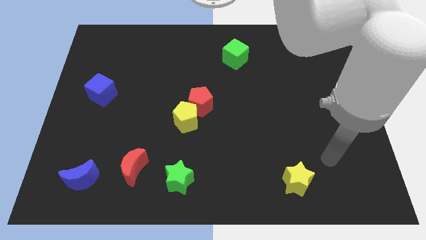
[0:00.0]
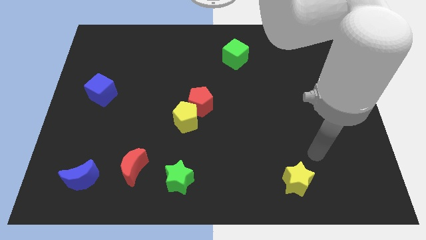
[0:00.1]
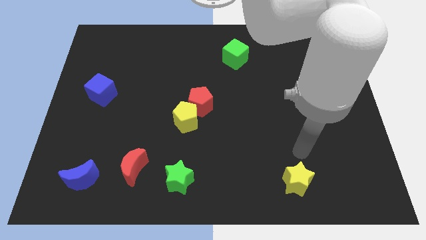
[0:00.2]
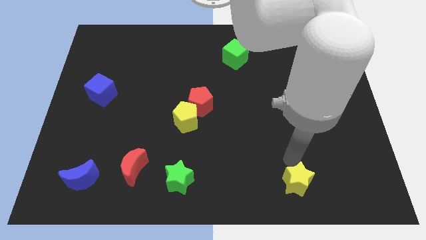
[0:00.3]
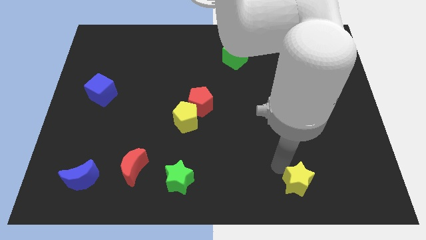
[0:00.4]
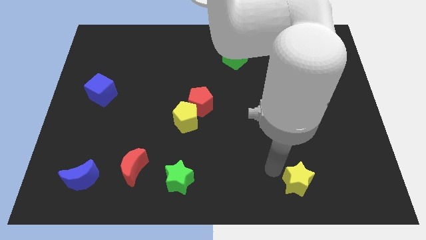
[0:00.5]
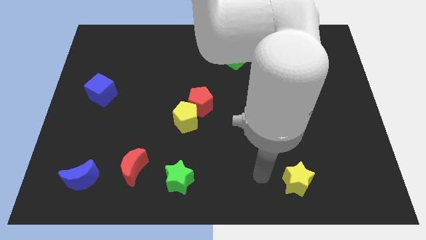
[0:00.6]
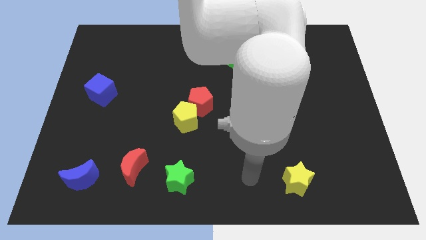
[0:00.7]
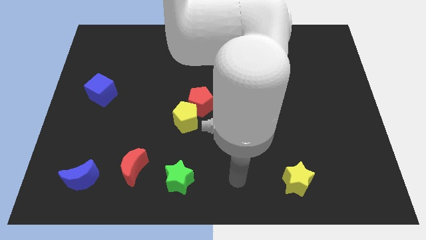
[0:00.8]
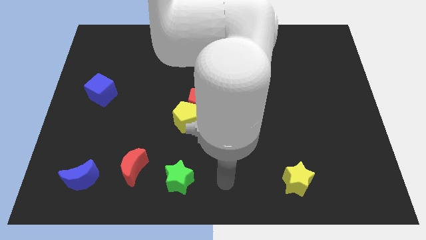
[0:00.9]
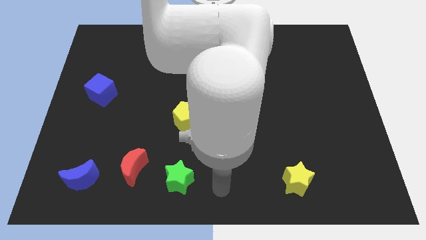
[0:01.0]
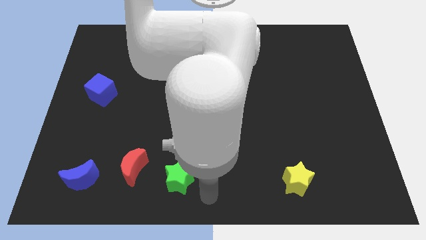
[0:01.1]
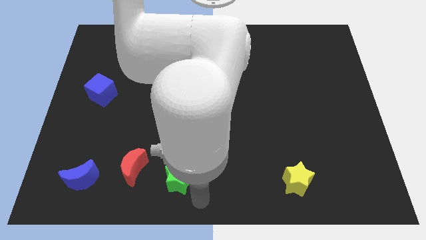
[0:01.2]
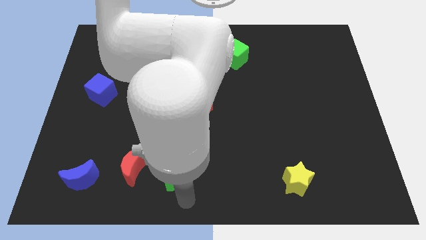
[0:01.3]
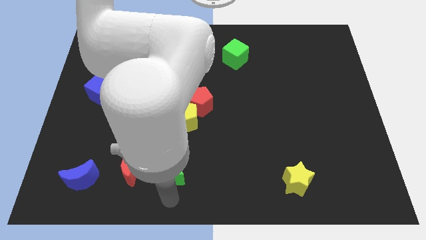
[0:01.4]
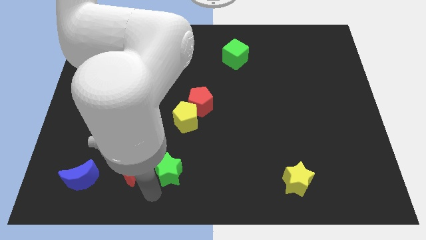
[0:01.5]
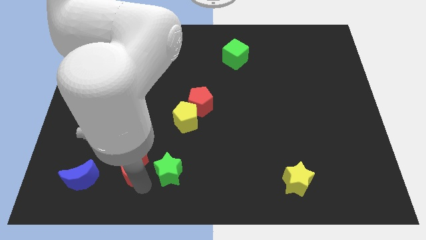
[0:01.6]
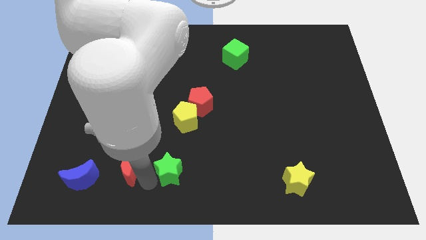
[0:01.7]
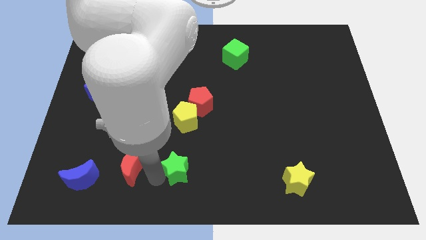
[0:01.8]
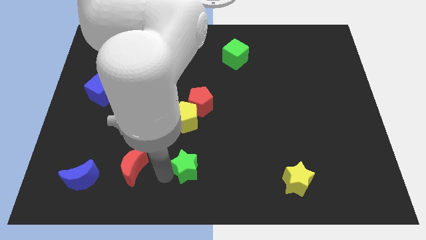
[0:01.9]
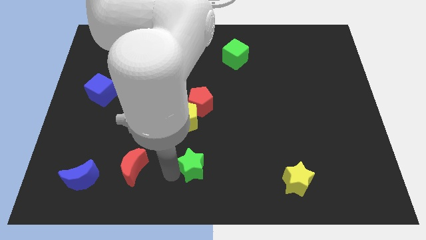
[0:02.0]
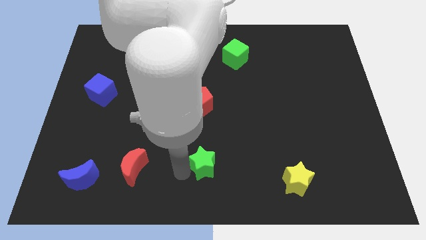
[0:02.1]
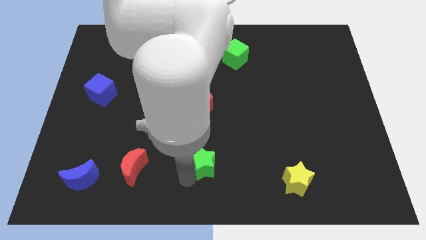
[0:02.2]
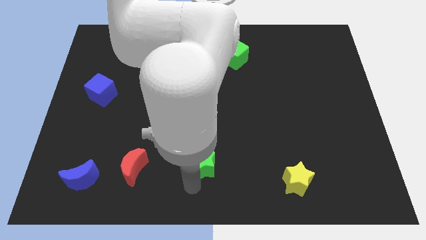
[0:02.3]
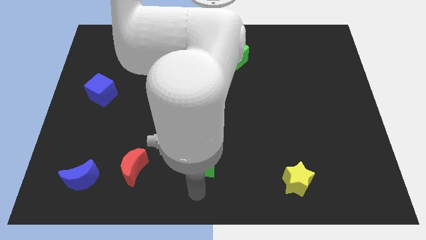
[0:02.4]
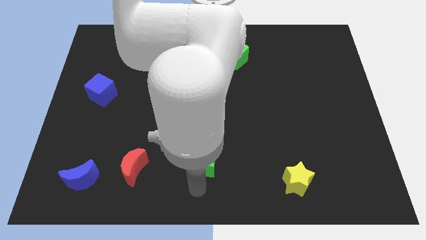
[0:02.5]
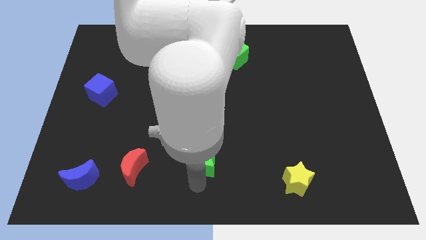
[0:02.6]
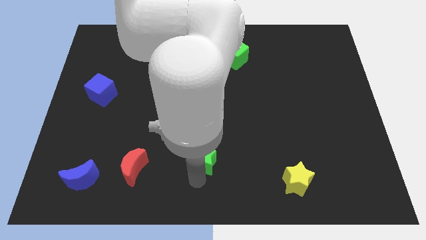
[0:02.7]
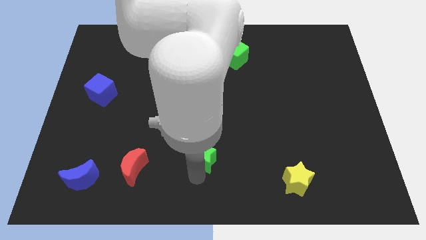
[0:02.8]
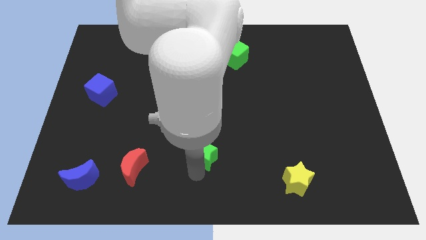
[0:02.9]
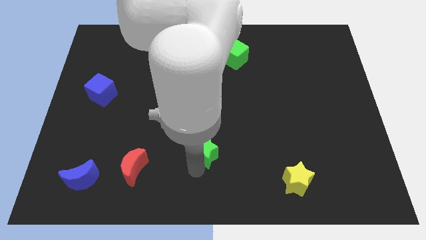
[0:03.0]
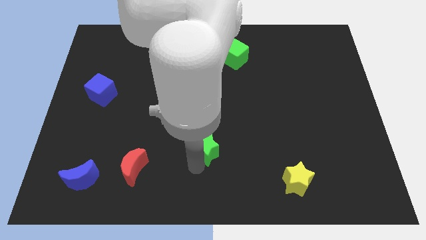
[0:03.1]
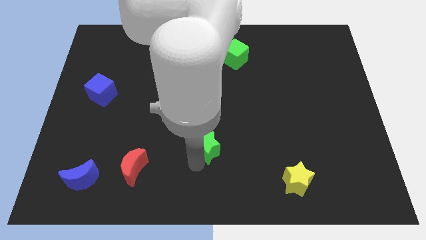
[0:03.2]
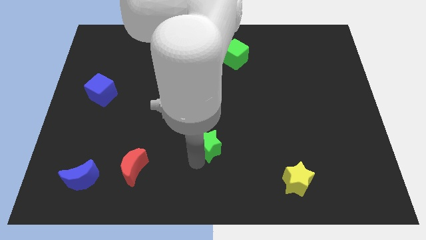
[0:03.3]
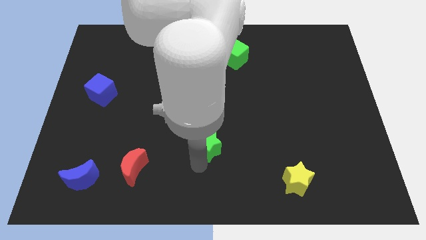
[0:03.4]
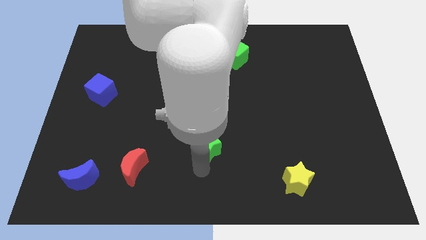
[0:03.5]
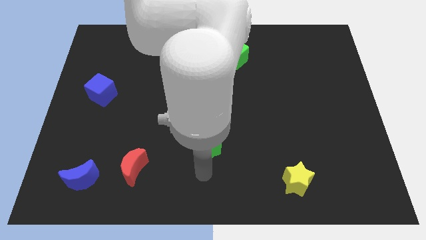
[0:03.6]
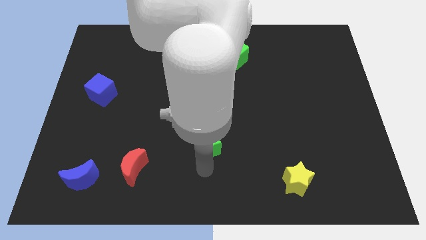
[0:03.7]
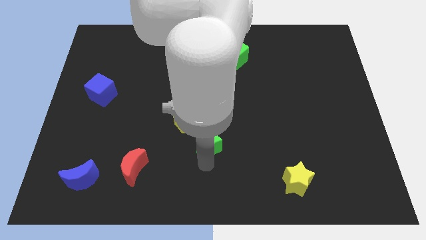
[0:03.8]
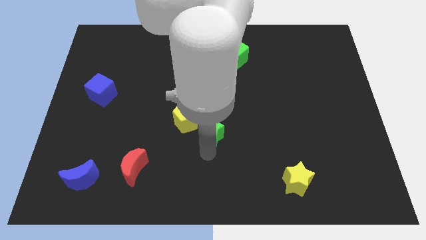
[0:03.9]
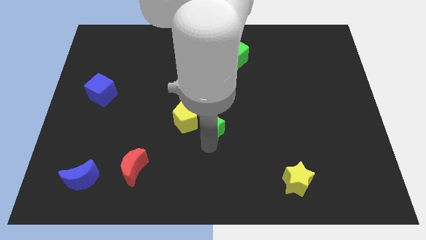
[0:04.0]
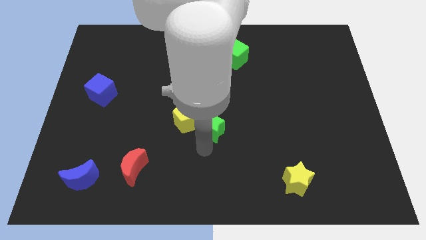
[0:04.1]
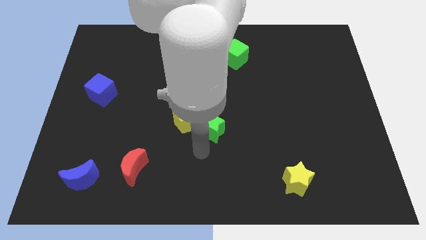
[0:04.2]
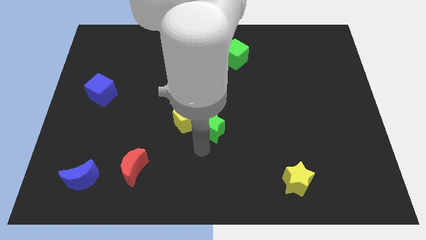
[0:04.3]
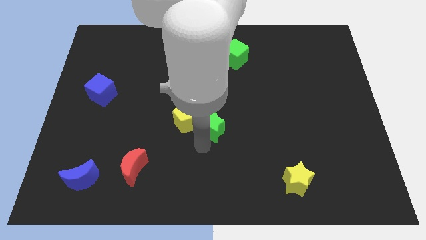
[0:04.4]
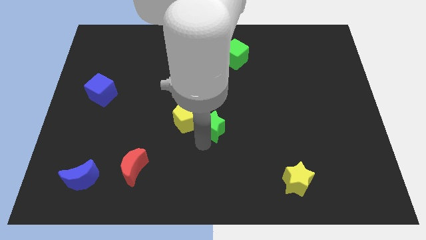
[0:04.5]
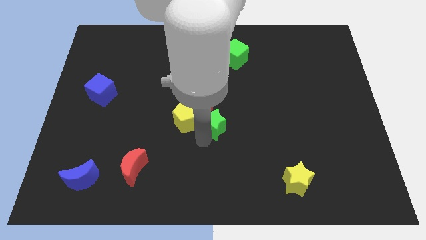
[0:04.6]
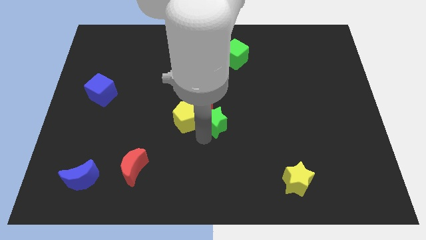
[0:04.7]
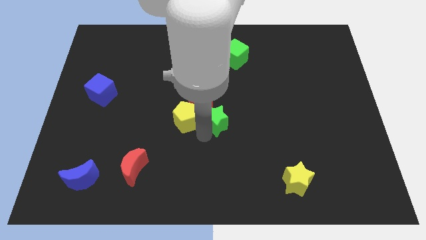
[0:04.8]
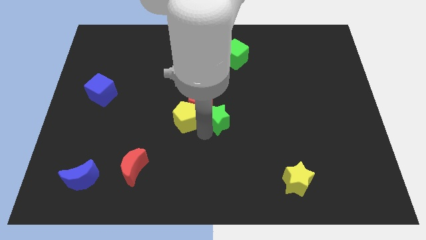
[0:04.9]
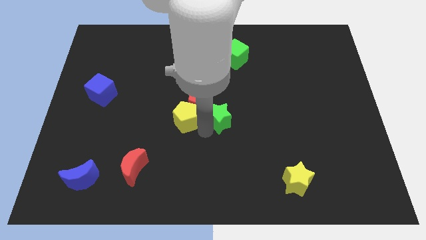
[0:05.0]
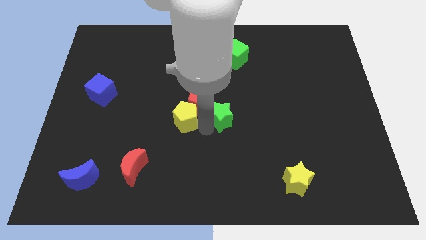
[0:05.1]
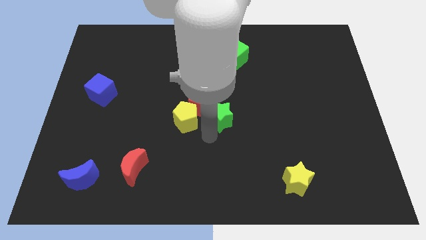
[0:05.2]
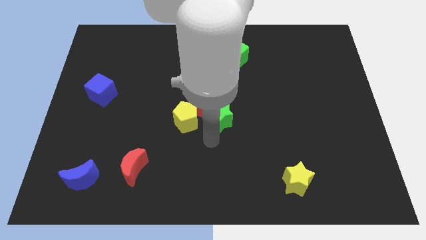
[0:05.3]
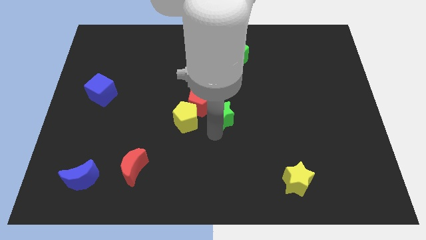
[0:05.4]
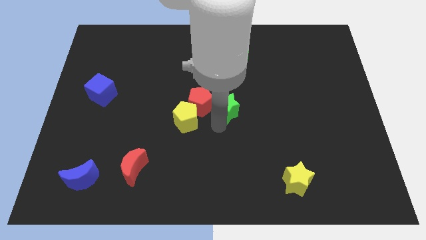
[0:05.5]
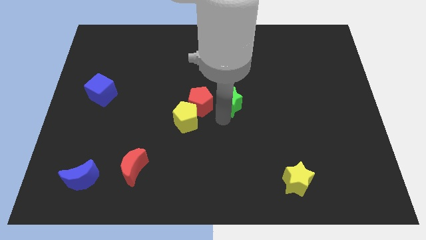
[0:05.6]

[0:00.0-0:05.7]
put the green star to the bottom side of the green cube

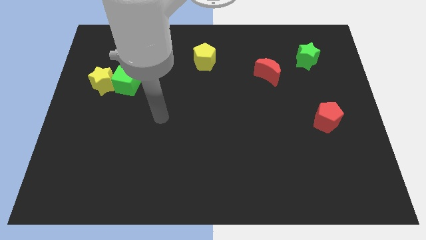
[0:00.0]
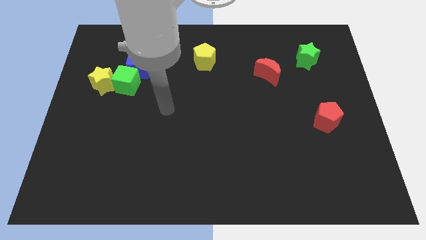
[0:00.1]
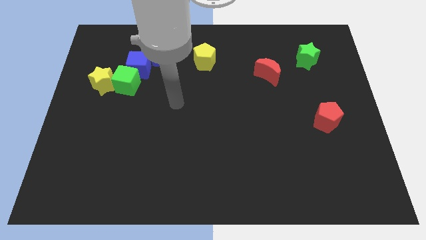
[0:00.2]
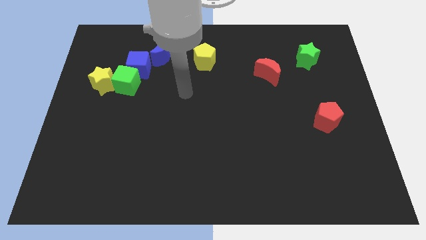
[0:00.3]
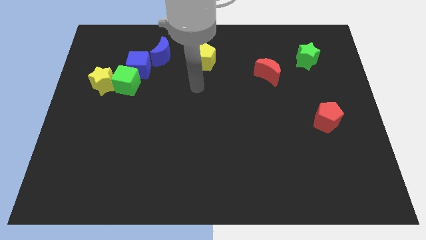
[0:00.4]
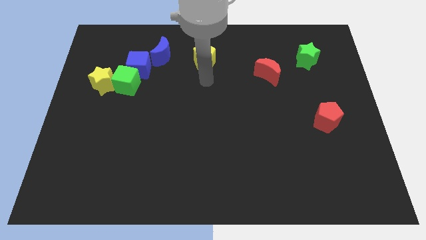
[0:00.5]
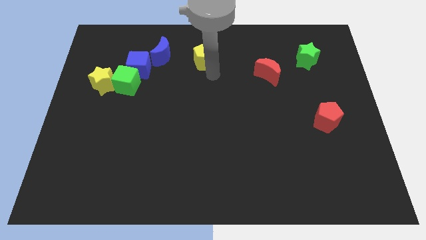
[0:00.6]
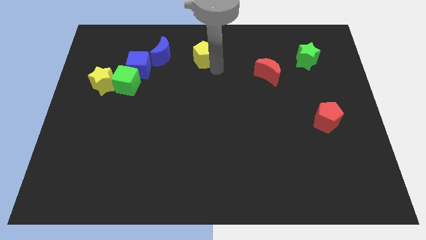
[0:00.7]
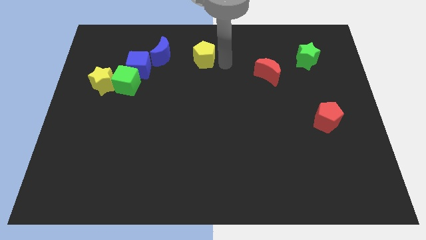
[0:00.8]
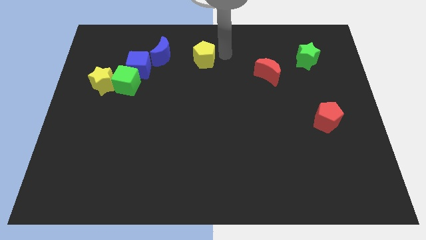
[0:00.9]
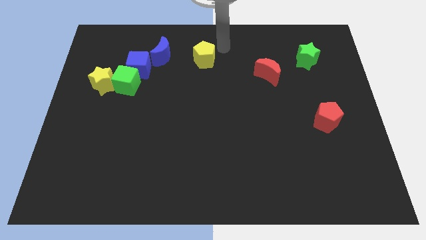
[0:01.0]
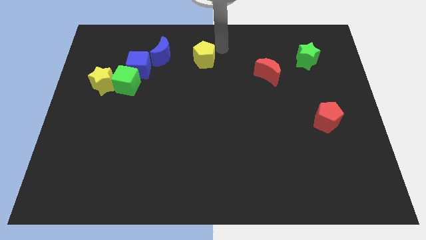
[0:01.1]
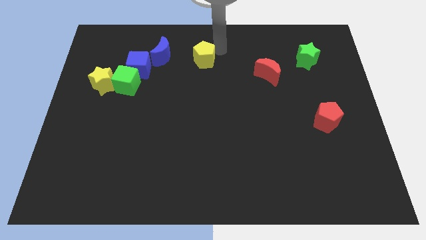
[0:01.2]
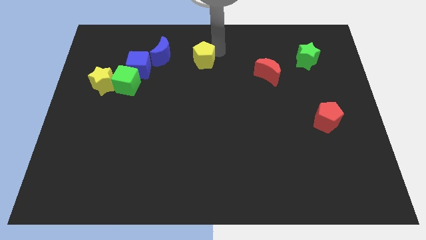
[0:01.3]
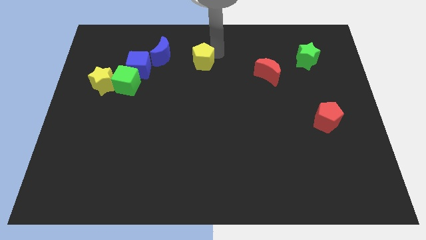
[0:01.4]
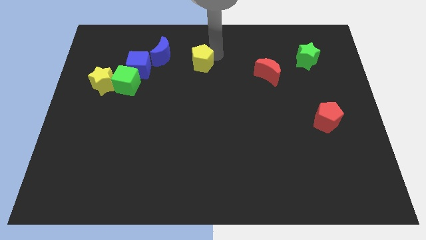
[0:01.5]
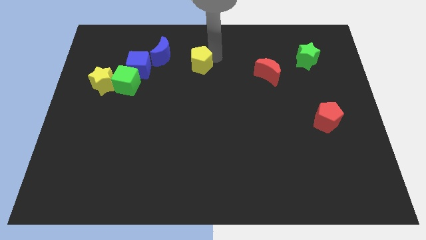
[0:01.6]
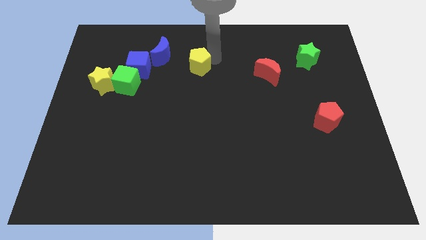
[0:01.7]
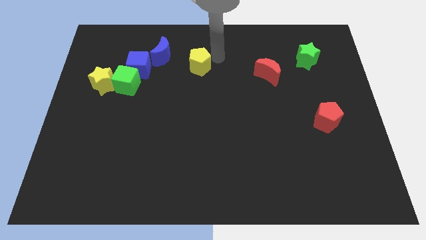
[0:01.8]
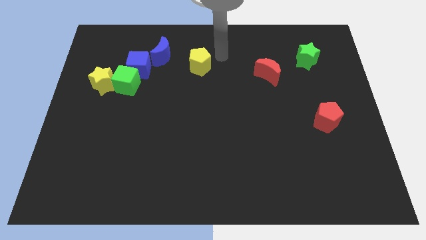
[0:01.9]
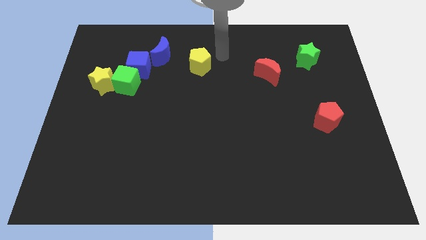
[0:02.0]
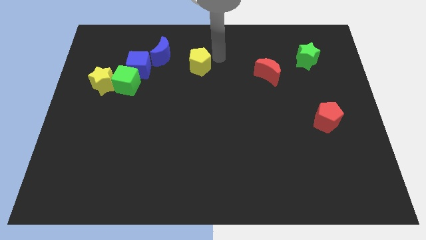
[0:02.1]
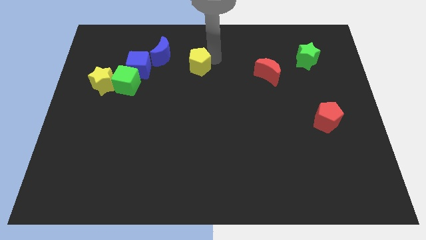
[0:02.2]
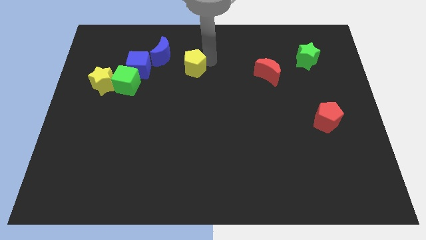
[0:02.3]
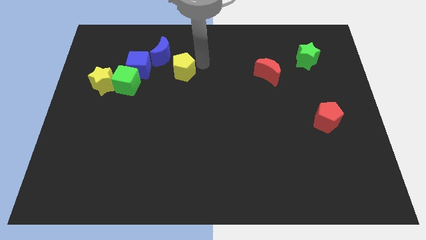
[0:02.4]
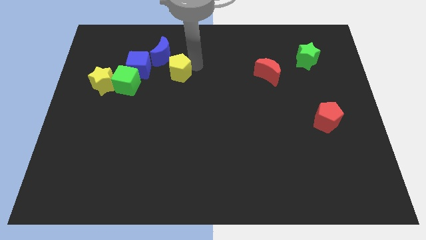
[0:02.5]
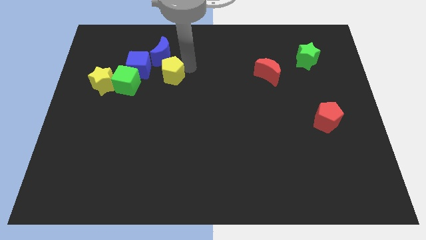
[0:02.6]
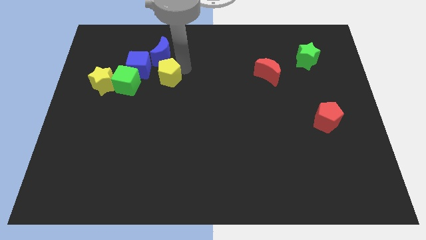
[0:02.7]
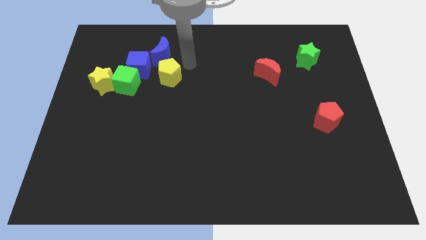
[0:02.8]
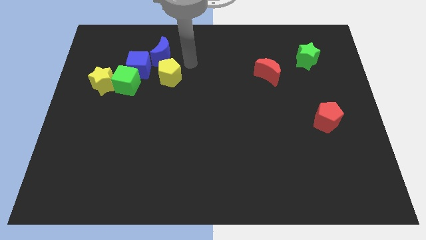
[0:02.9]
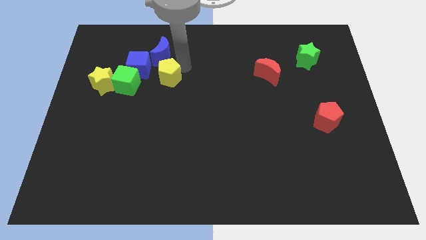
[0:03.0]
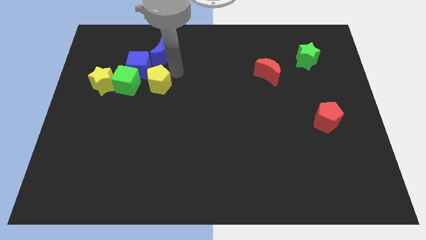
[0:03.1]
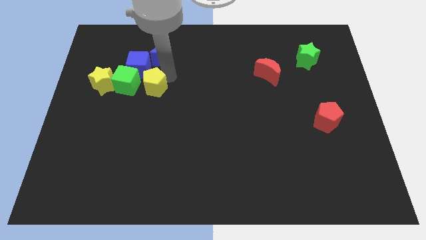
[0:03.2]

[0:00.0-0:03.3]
move the yellow pentagon to the bottom side of the blue cube
